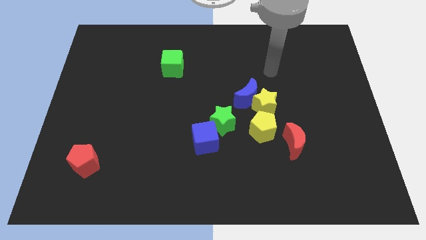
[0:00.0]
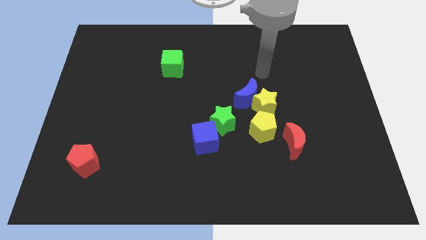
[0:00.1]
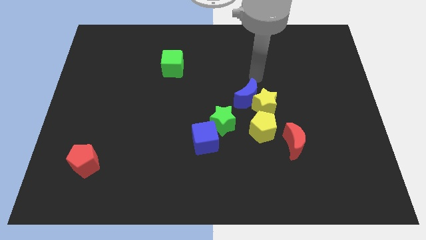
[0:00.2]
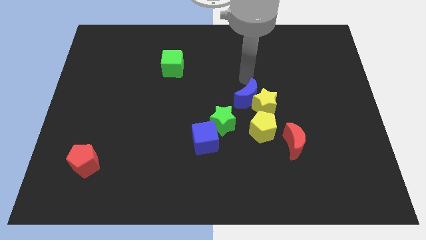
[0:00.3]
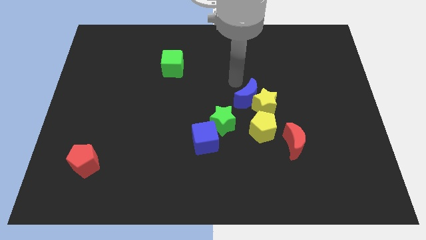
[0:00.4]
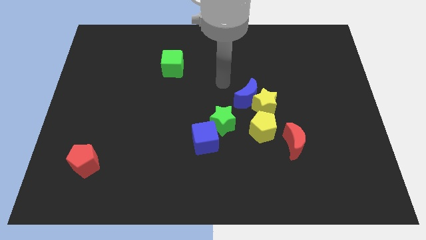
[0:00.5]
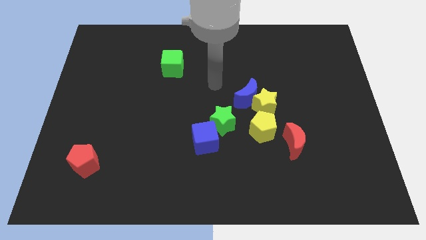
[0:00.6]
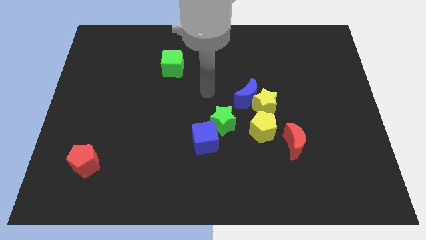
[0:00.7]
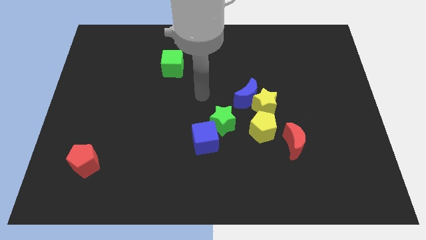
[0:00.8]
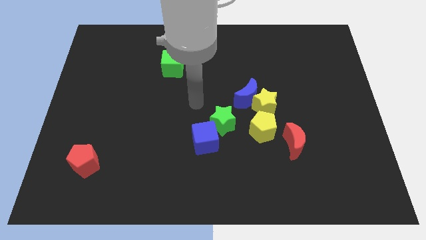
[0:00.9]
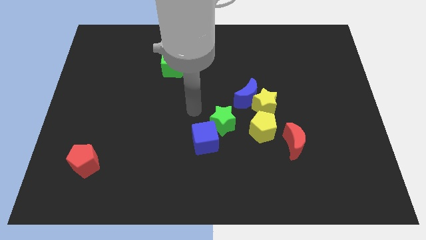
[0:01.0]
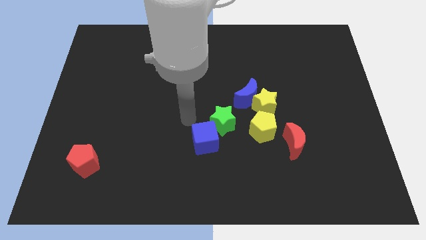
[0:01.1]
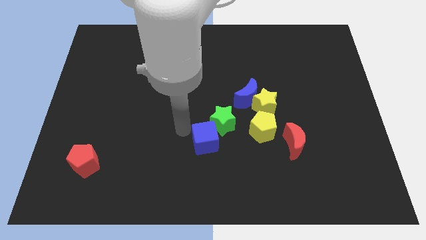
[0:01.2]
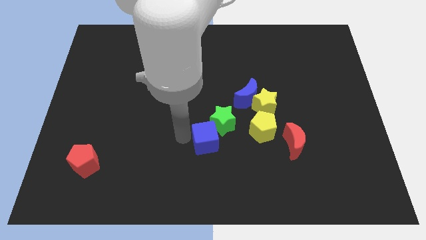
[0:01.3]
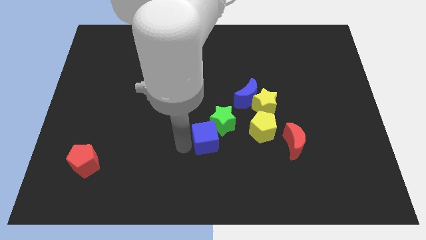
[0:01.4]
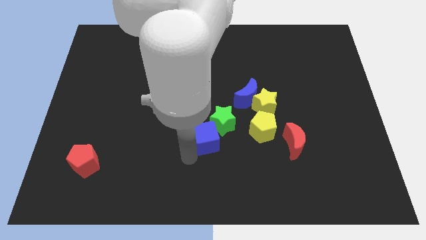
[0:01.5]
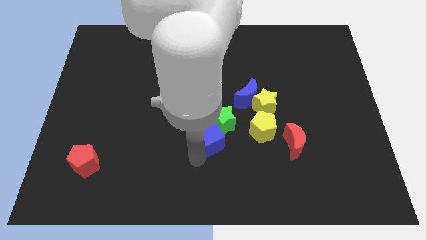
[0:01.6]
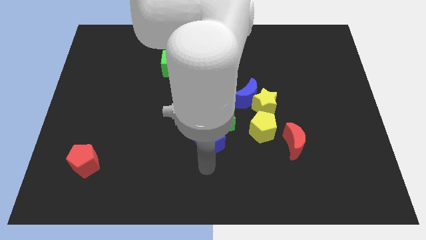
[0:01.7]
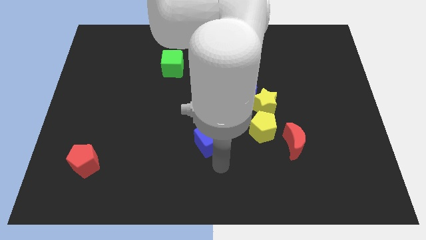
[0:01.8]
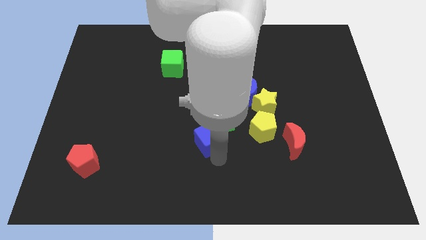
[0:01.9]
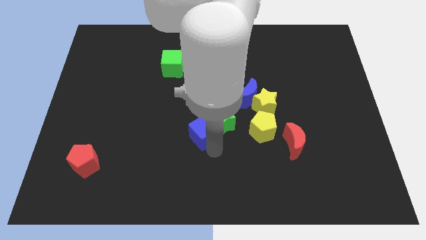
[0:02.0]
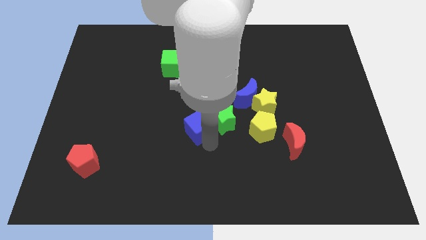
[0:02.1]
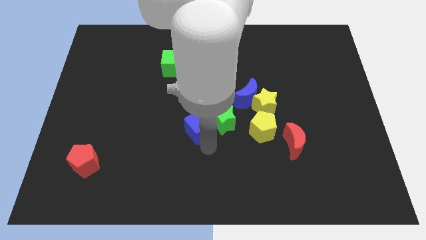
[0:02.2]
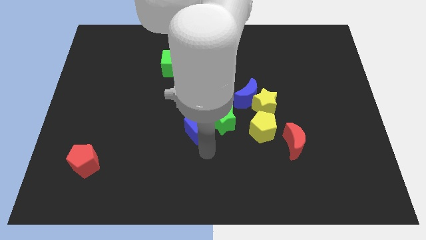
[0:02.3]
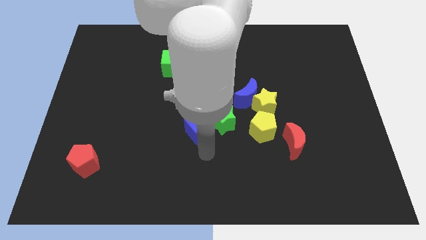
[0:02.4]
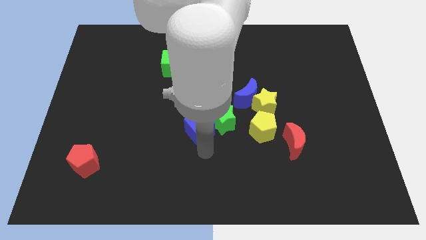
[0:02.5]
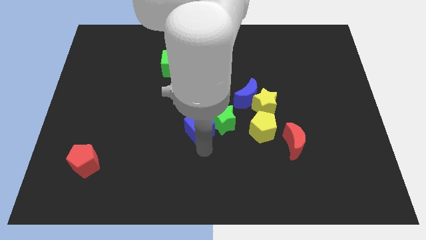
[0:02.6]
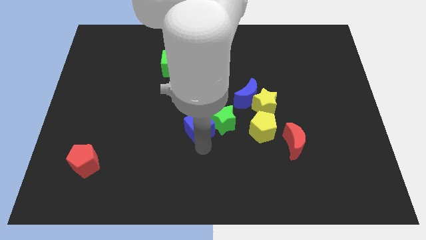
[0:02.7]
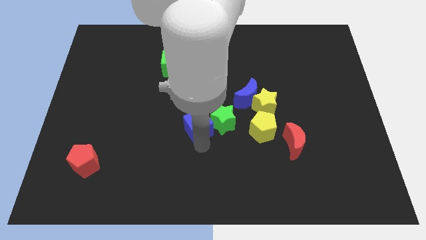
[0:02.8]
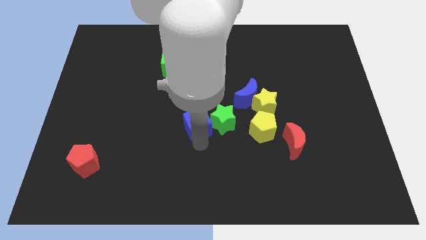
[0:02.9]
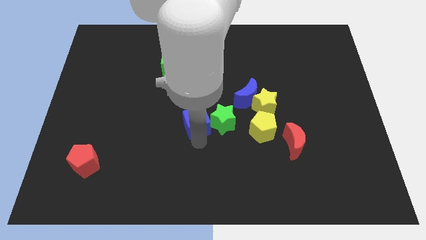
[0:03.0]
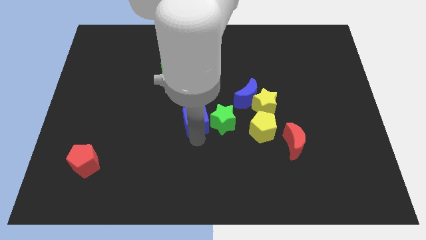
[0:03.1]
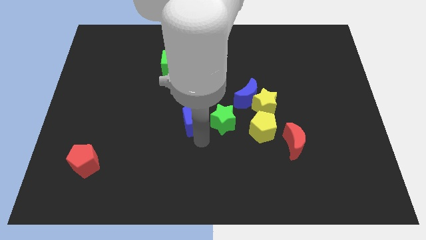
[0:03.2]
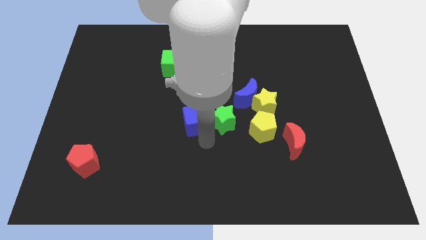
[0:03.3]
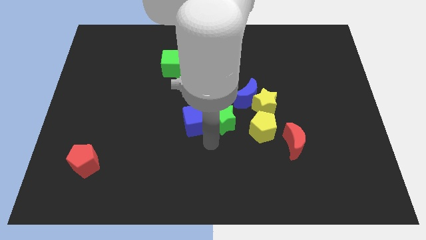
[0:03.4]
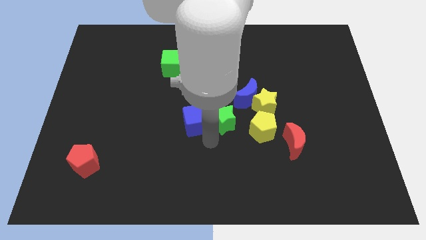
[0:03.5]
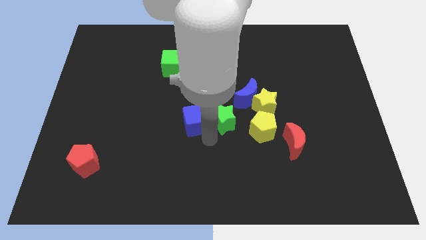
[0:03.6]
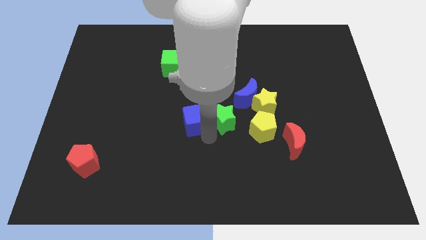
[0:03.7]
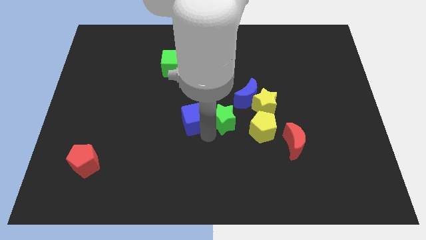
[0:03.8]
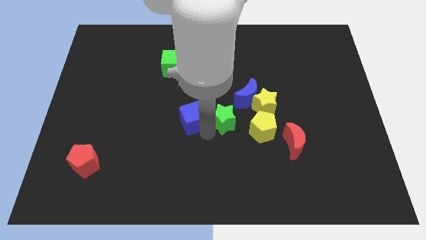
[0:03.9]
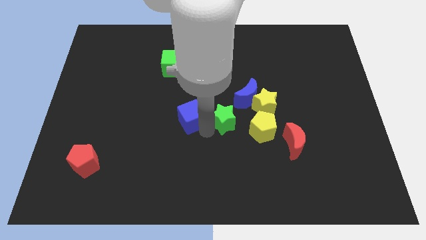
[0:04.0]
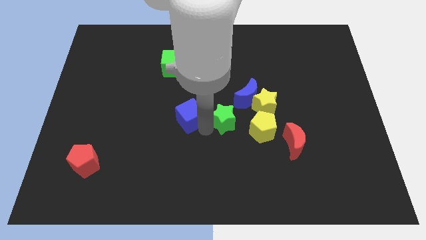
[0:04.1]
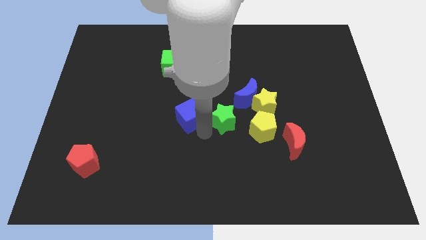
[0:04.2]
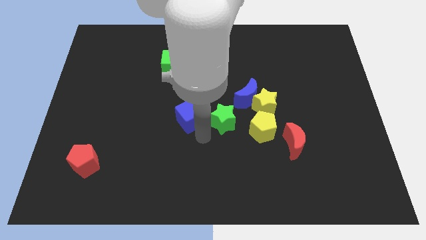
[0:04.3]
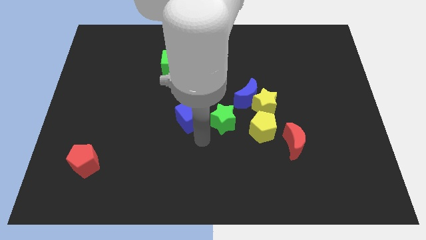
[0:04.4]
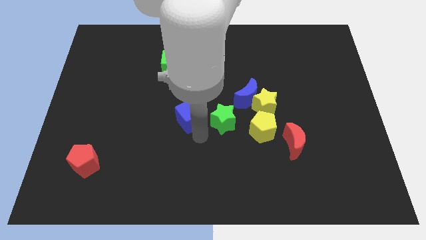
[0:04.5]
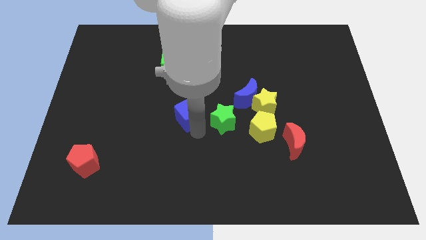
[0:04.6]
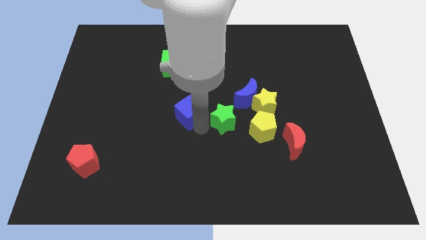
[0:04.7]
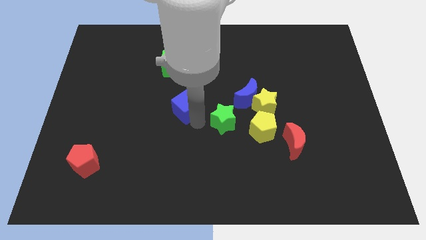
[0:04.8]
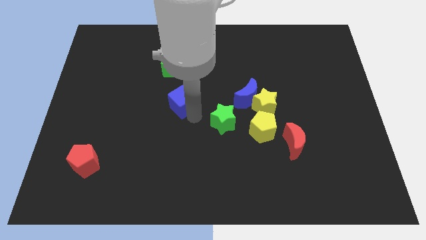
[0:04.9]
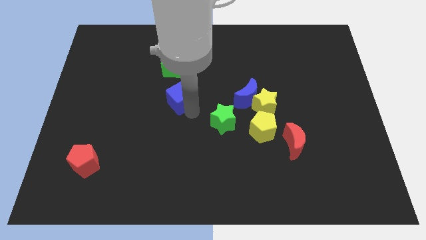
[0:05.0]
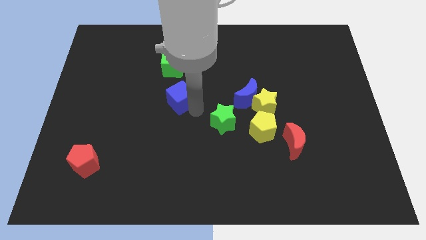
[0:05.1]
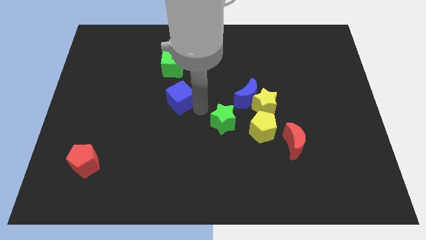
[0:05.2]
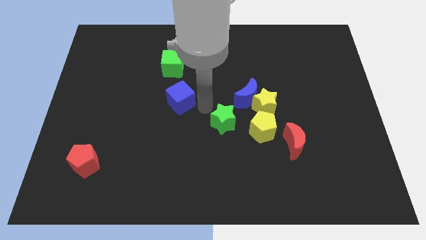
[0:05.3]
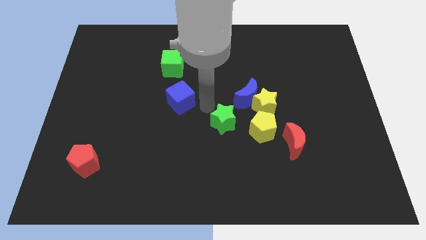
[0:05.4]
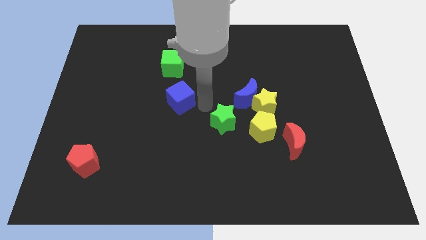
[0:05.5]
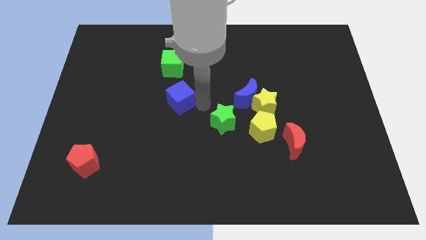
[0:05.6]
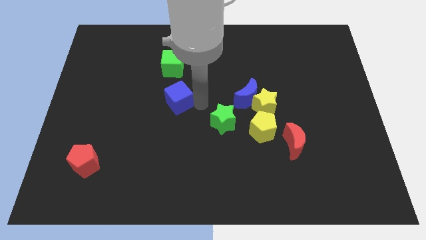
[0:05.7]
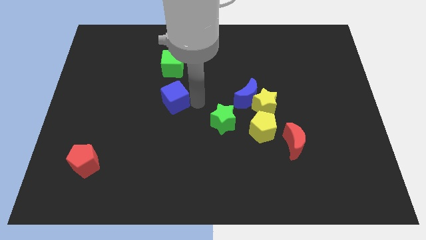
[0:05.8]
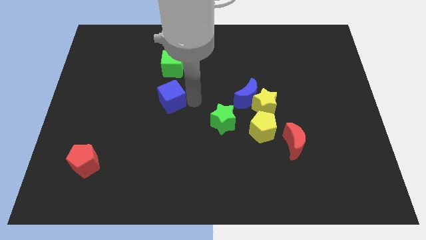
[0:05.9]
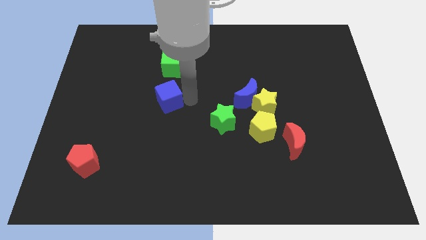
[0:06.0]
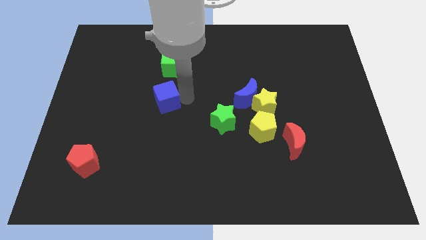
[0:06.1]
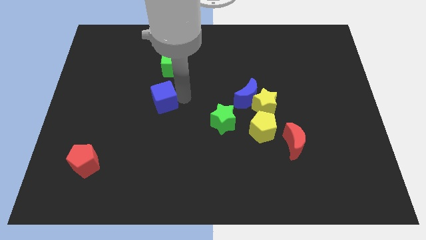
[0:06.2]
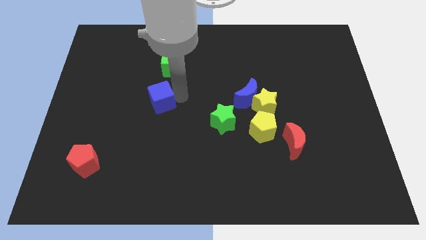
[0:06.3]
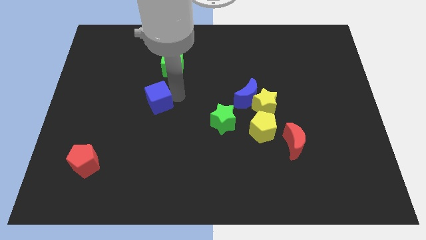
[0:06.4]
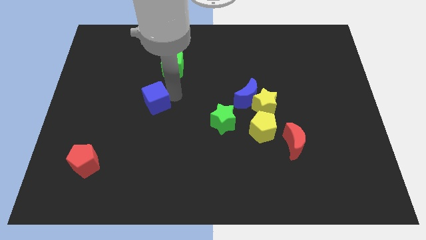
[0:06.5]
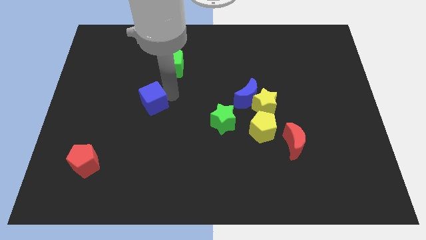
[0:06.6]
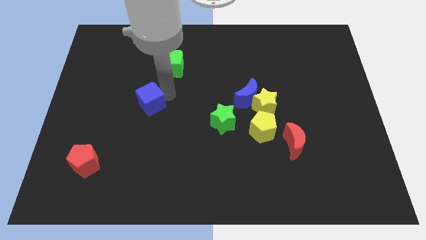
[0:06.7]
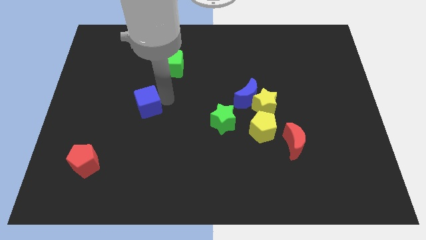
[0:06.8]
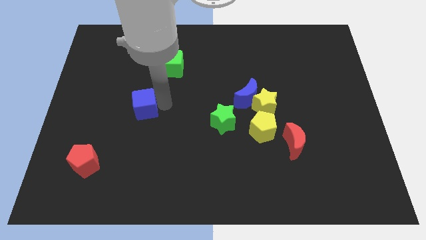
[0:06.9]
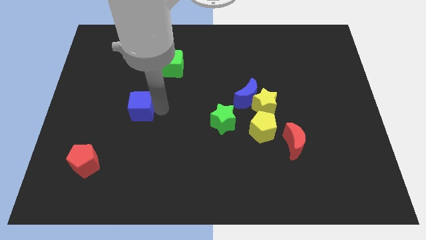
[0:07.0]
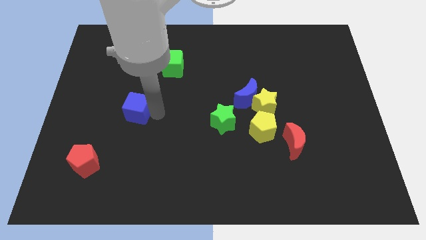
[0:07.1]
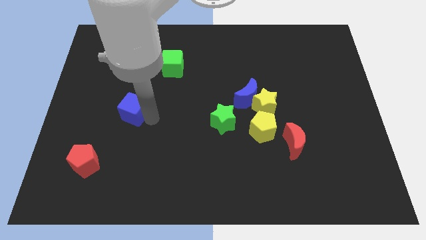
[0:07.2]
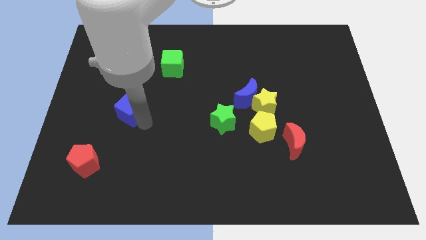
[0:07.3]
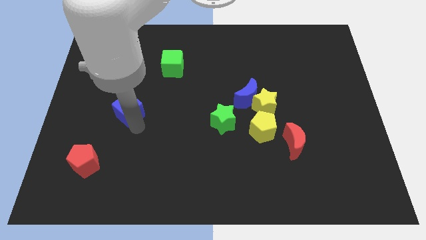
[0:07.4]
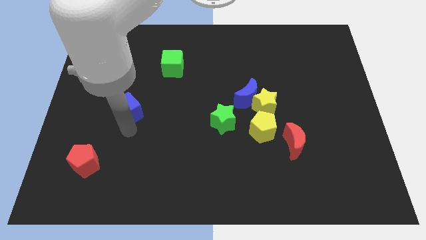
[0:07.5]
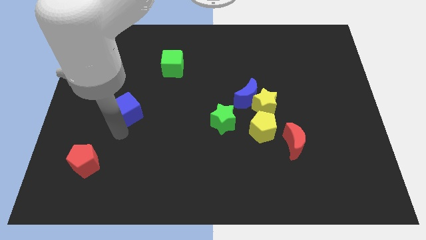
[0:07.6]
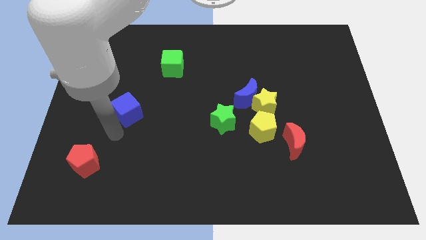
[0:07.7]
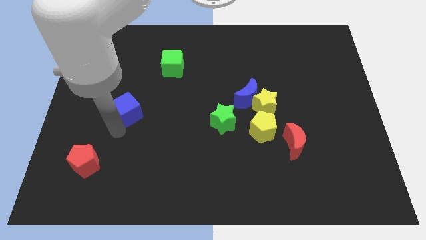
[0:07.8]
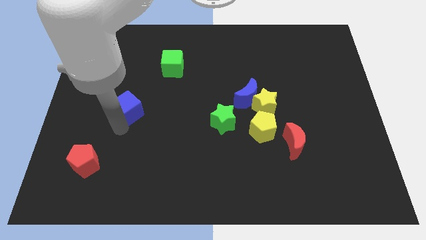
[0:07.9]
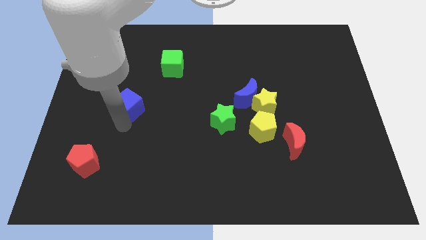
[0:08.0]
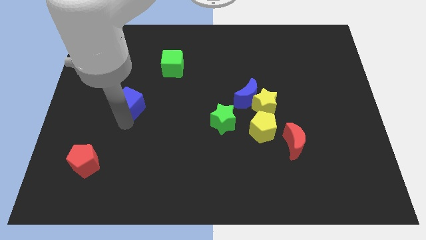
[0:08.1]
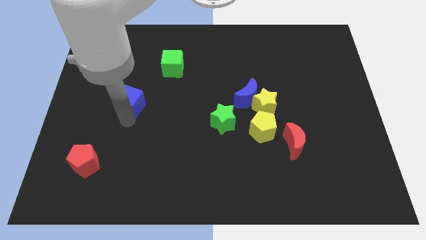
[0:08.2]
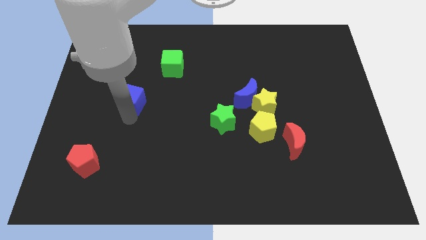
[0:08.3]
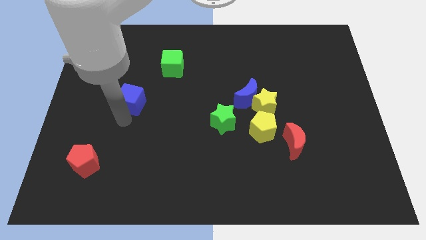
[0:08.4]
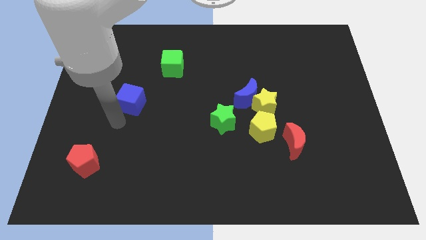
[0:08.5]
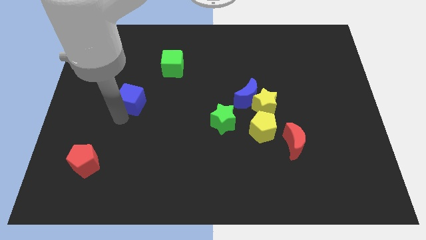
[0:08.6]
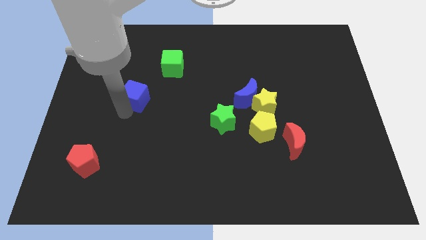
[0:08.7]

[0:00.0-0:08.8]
push the blue cube diagonally upwards and to the left
